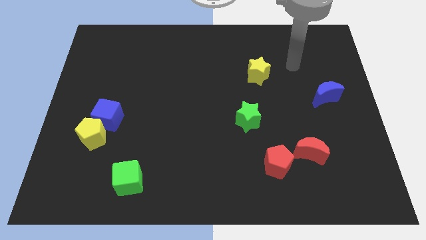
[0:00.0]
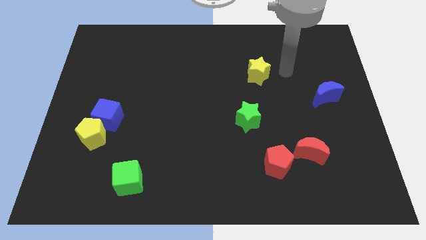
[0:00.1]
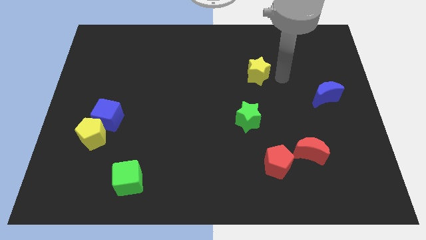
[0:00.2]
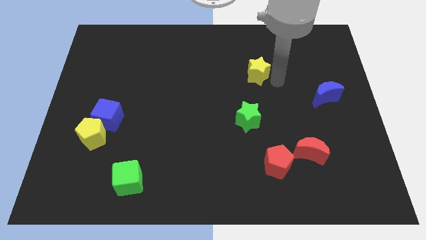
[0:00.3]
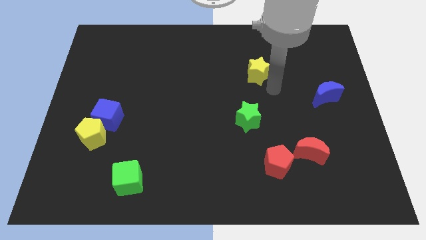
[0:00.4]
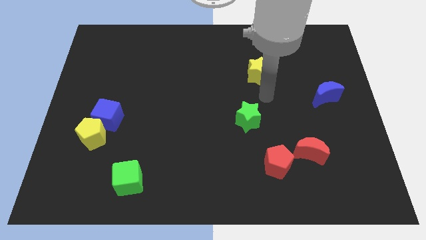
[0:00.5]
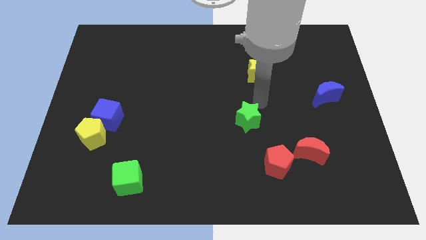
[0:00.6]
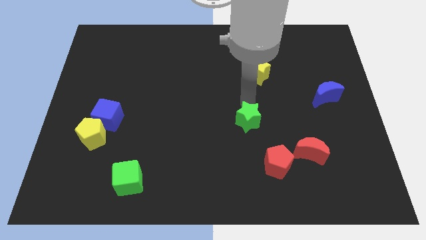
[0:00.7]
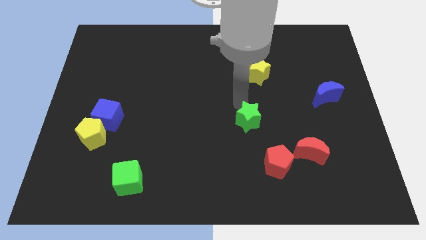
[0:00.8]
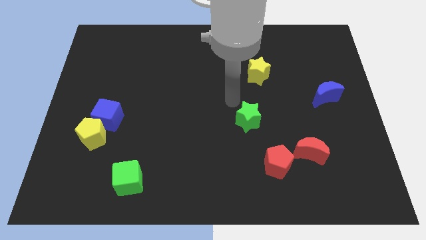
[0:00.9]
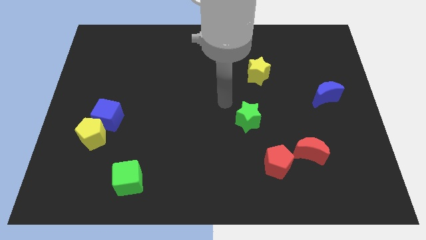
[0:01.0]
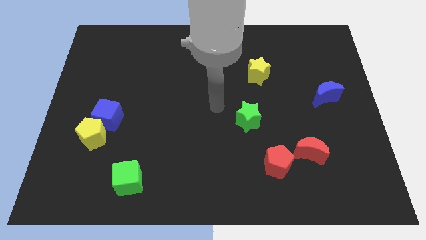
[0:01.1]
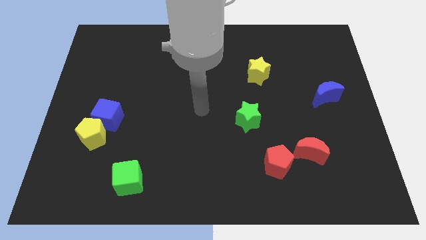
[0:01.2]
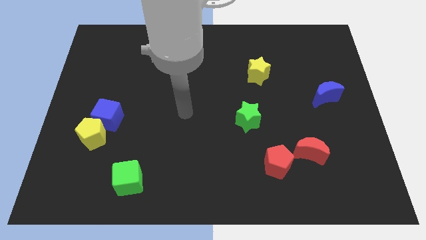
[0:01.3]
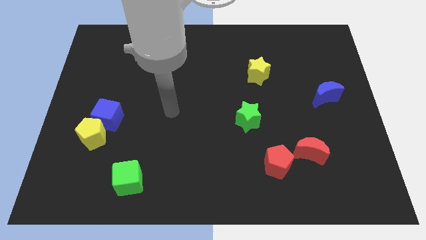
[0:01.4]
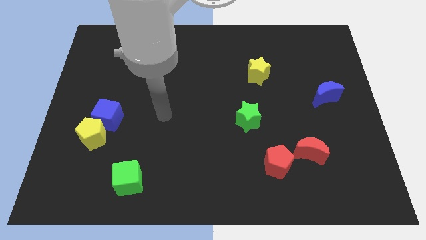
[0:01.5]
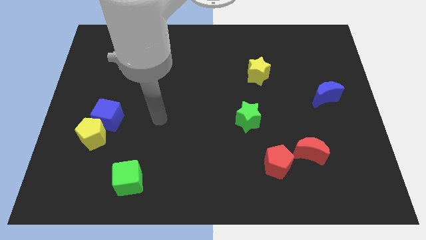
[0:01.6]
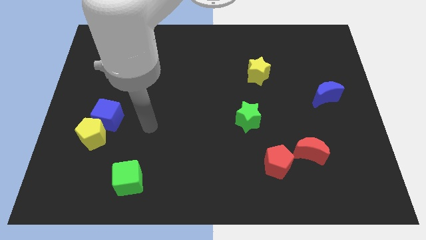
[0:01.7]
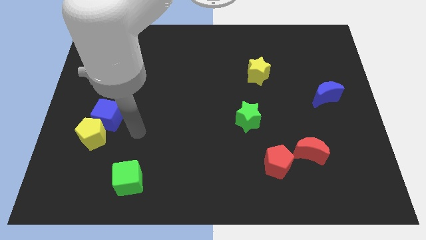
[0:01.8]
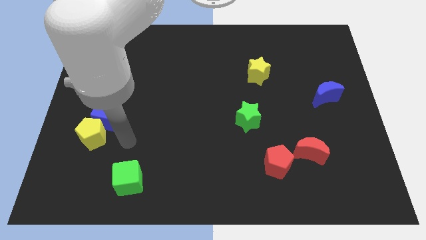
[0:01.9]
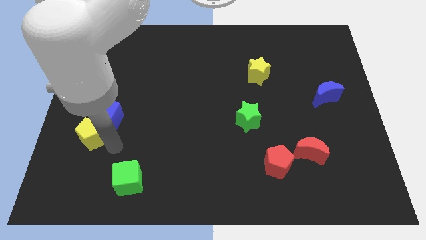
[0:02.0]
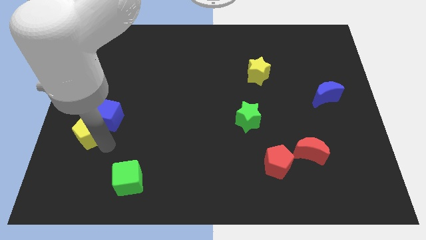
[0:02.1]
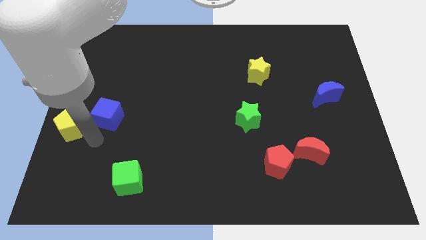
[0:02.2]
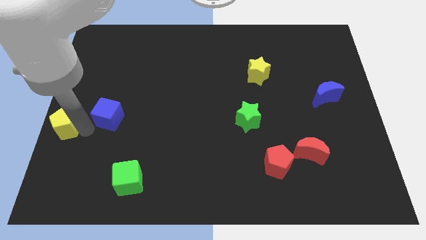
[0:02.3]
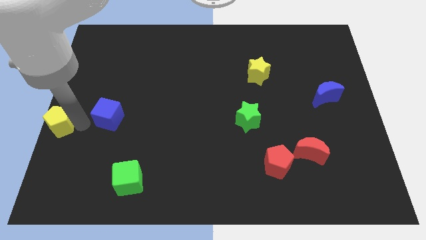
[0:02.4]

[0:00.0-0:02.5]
pull the blue cube apart from the yellow pentagon

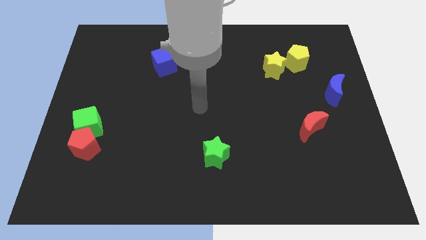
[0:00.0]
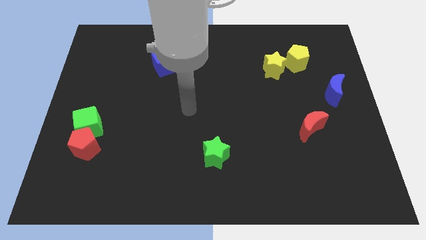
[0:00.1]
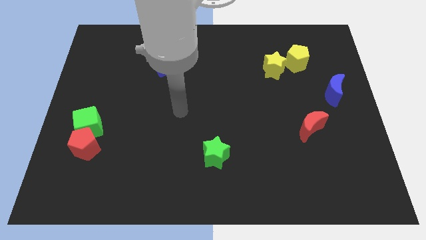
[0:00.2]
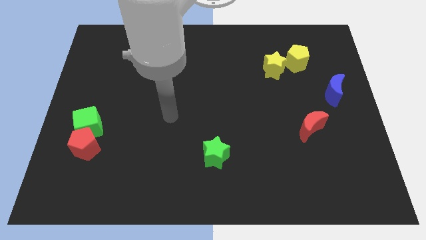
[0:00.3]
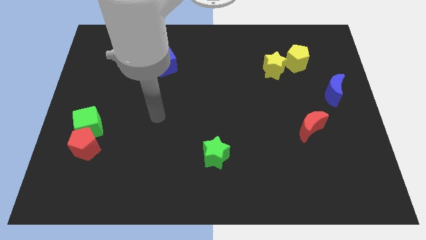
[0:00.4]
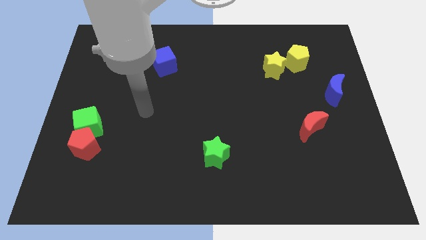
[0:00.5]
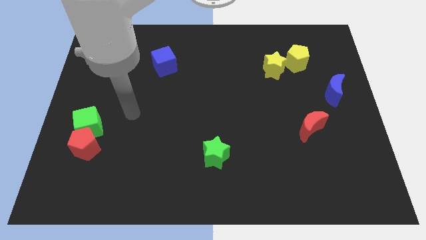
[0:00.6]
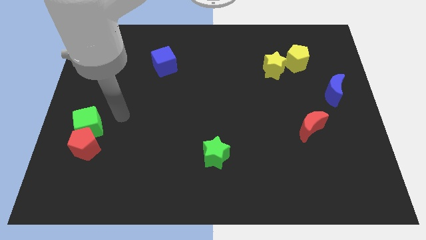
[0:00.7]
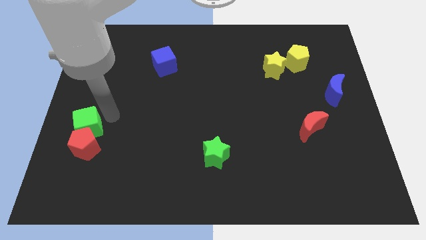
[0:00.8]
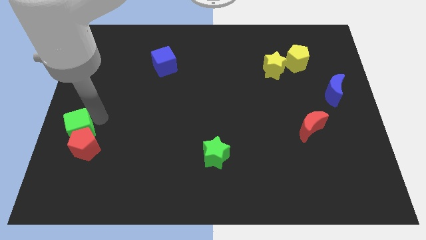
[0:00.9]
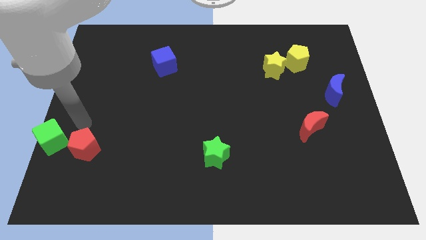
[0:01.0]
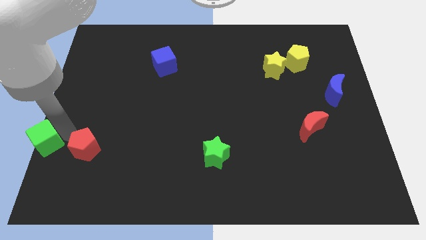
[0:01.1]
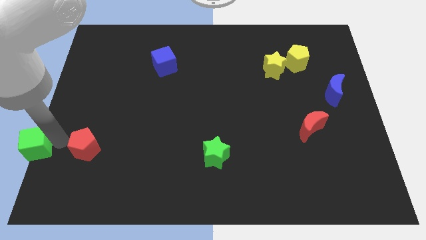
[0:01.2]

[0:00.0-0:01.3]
pull the red pentagon apart from the green cube

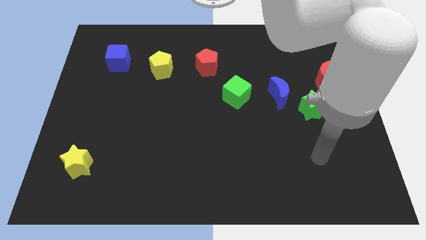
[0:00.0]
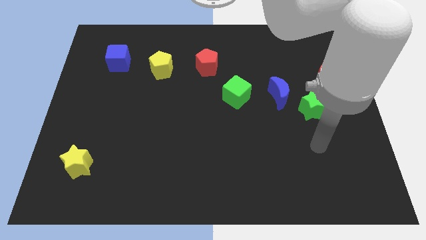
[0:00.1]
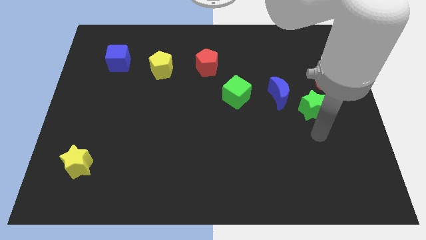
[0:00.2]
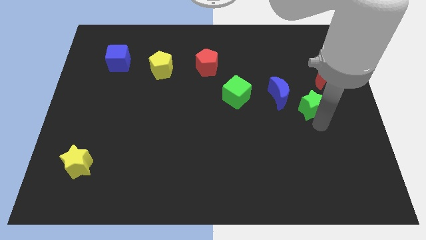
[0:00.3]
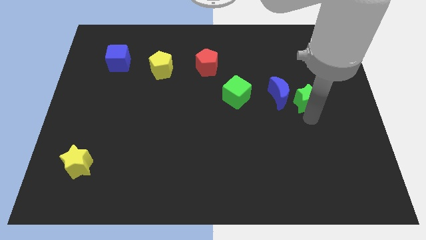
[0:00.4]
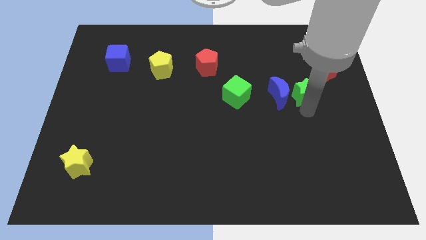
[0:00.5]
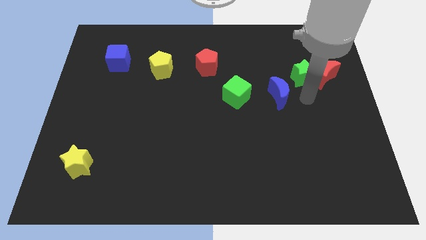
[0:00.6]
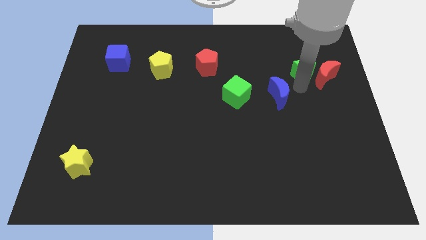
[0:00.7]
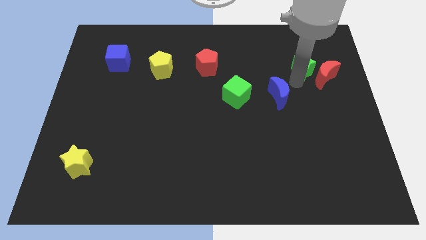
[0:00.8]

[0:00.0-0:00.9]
pull the blue moon apart from the green star

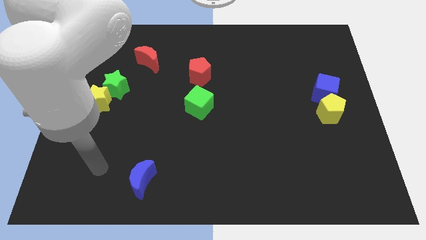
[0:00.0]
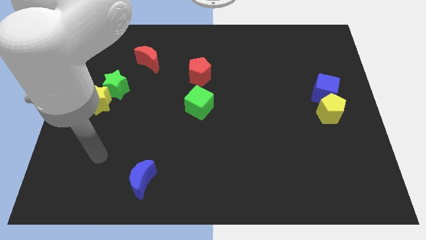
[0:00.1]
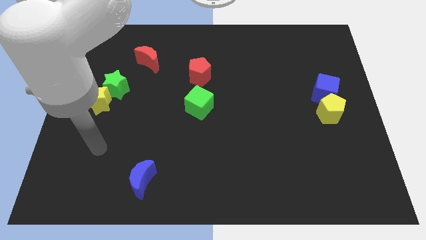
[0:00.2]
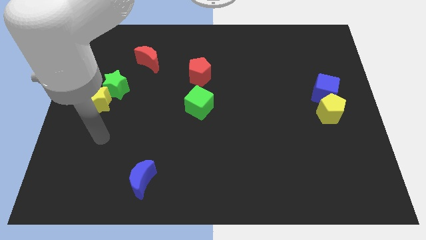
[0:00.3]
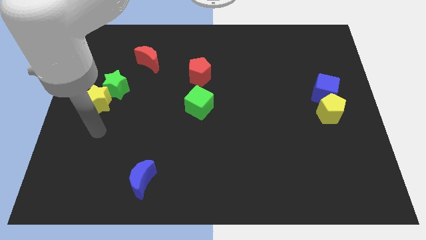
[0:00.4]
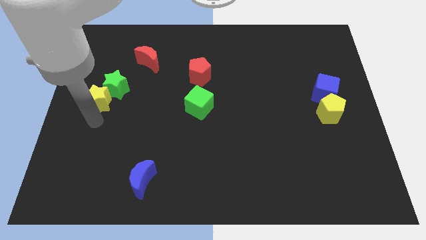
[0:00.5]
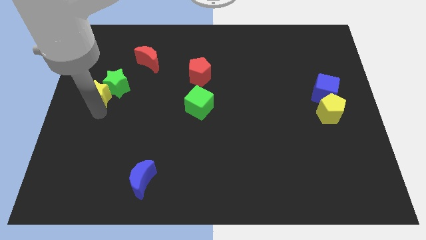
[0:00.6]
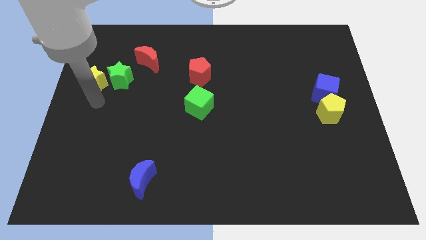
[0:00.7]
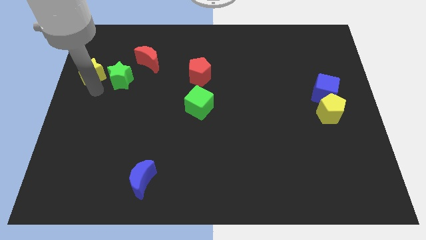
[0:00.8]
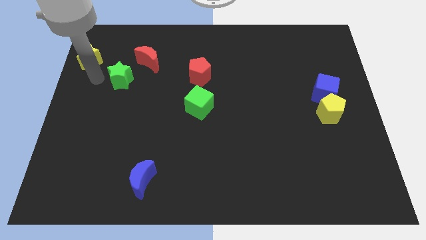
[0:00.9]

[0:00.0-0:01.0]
pull the green star apart from the yellow star

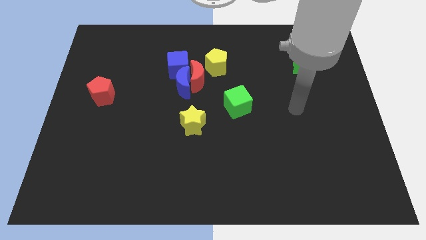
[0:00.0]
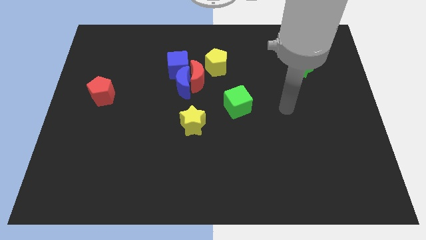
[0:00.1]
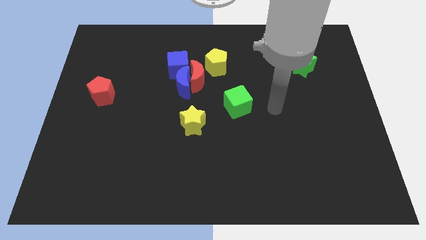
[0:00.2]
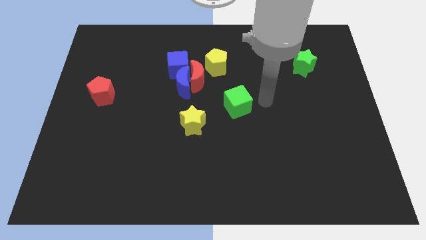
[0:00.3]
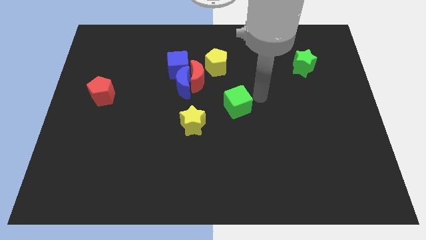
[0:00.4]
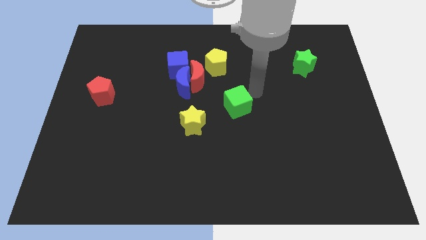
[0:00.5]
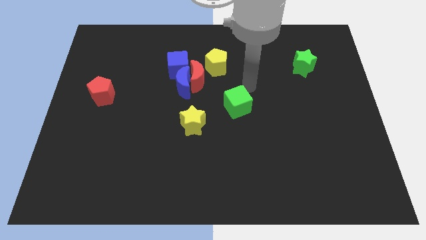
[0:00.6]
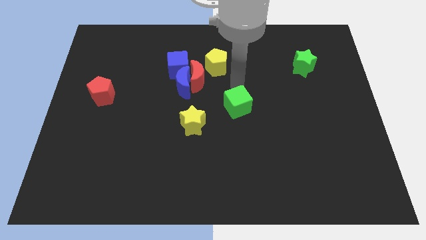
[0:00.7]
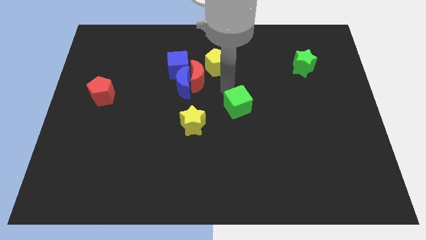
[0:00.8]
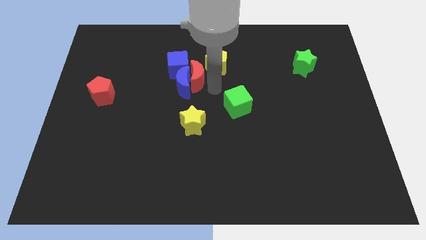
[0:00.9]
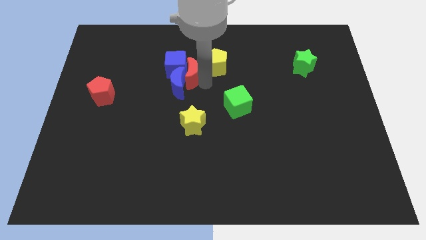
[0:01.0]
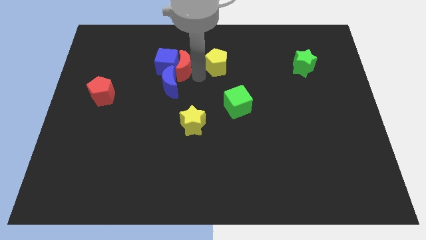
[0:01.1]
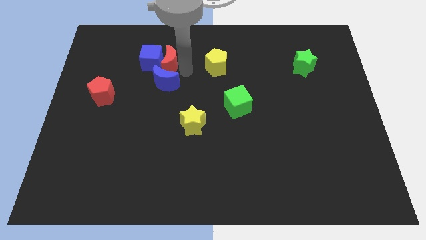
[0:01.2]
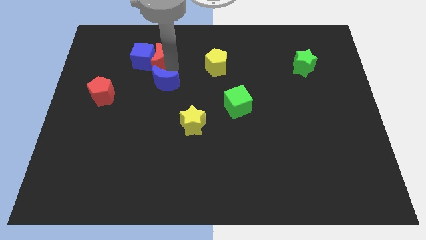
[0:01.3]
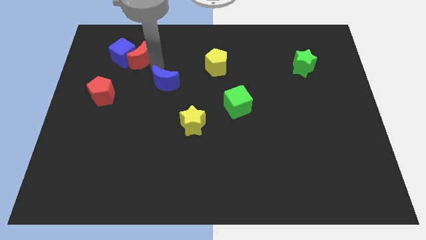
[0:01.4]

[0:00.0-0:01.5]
separate the blue moon from the red moon and blue cube

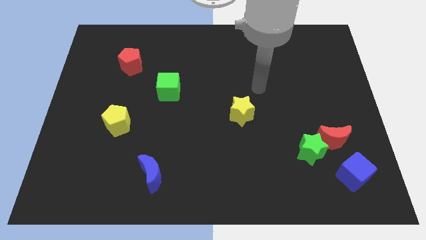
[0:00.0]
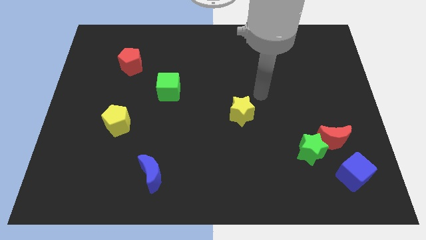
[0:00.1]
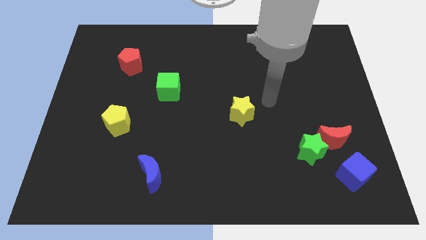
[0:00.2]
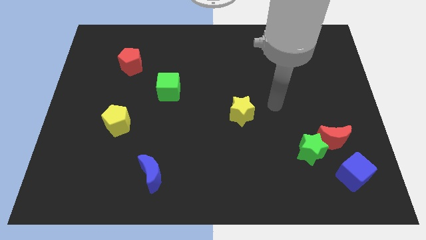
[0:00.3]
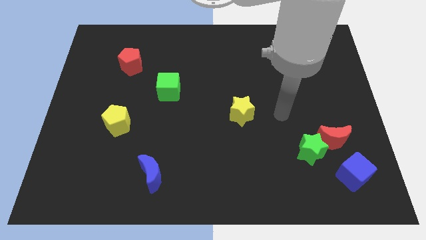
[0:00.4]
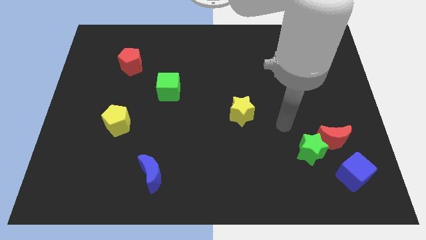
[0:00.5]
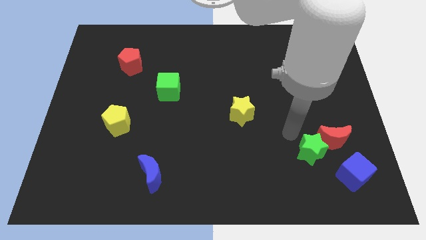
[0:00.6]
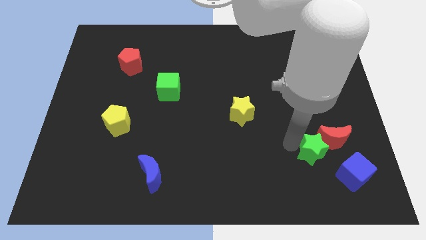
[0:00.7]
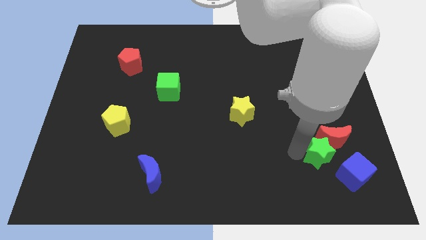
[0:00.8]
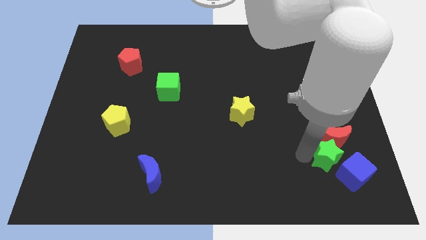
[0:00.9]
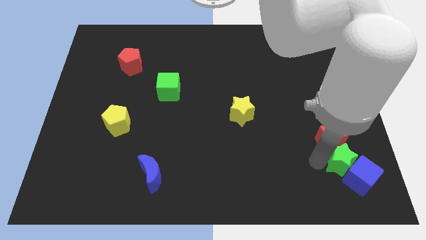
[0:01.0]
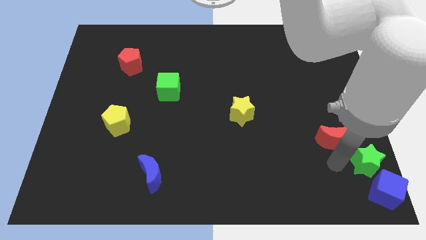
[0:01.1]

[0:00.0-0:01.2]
separate the red moon from the green star and blue cube

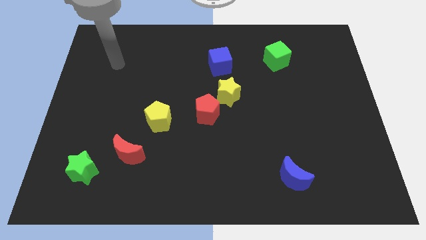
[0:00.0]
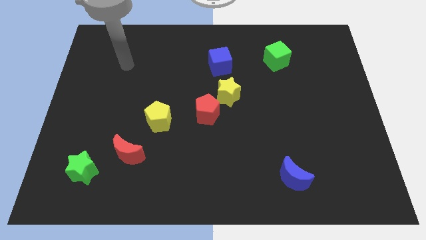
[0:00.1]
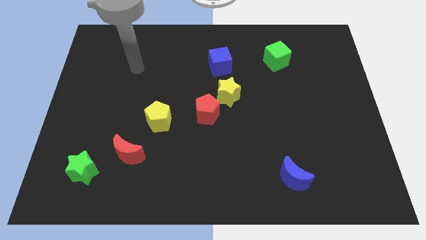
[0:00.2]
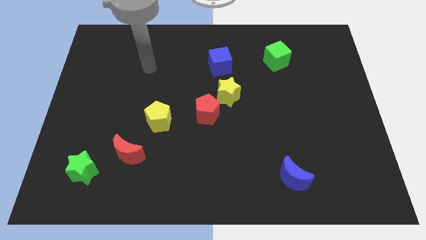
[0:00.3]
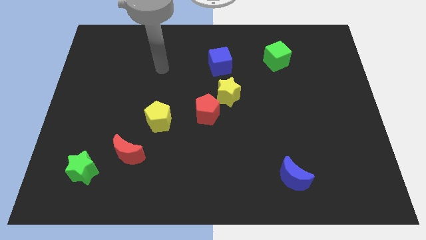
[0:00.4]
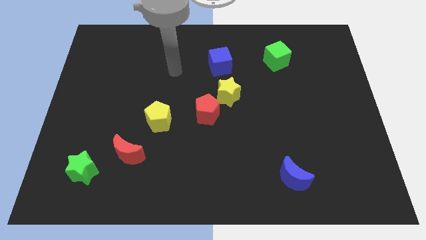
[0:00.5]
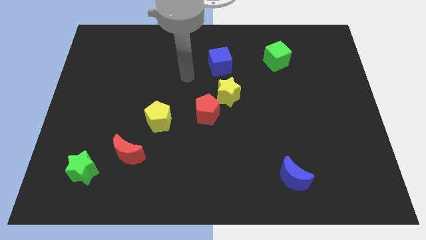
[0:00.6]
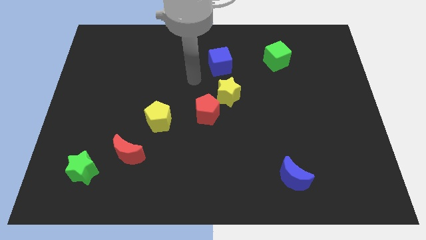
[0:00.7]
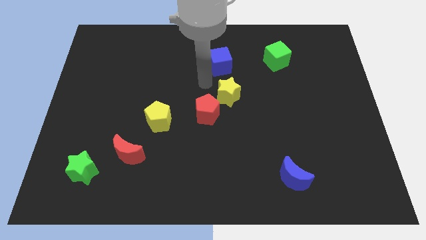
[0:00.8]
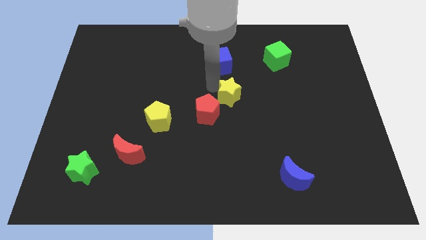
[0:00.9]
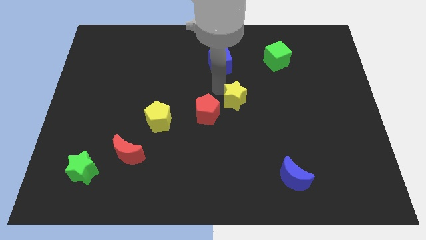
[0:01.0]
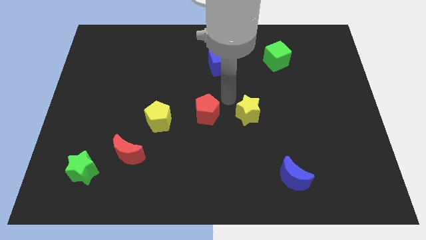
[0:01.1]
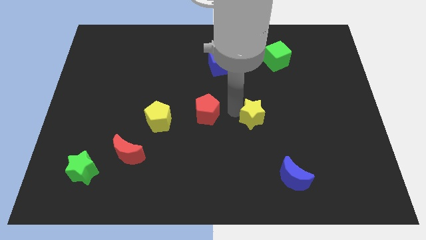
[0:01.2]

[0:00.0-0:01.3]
move the red pentagon away from the yellow star
